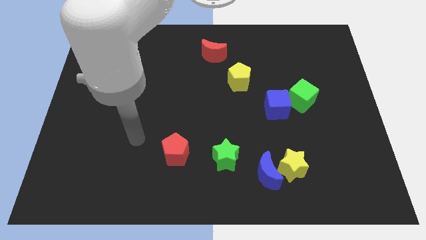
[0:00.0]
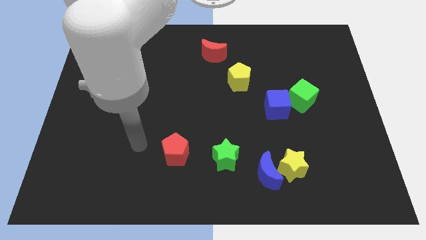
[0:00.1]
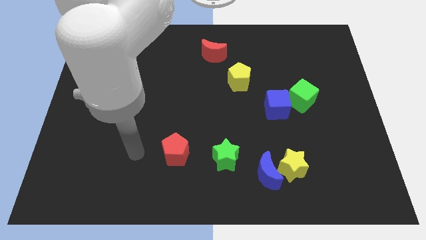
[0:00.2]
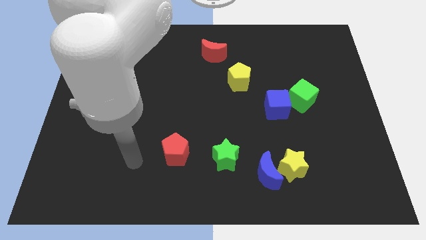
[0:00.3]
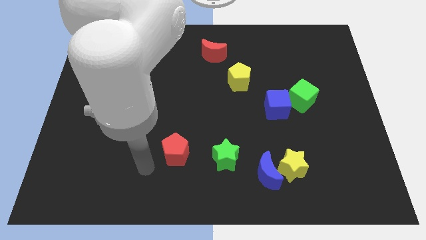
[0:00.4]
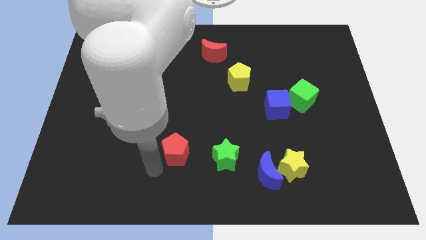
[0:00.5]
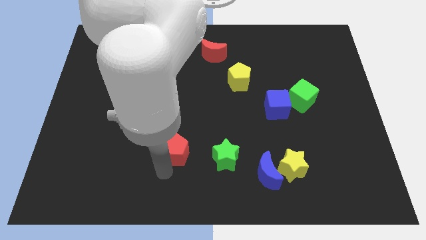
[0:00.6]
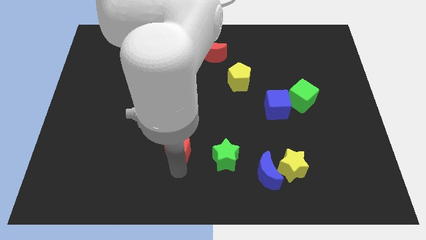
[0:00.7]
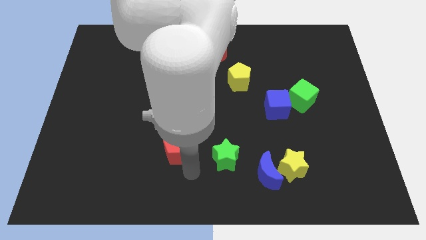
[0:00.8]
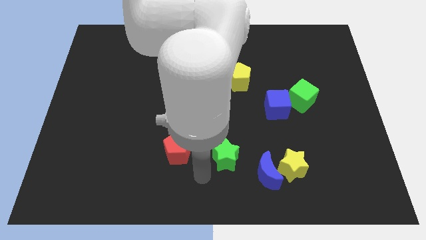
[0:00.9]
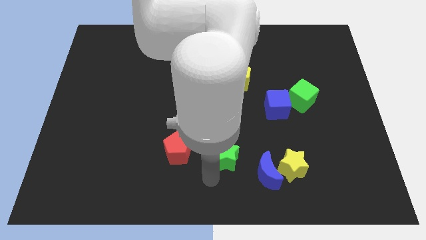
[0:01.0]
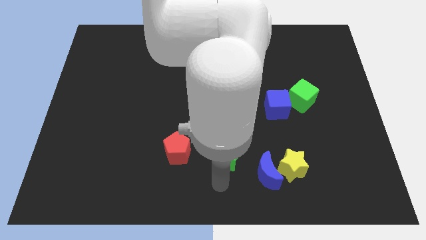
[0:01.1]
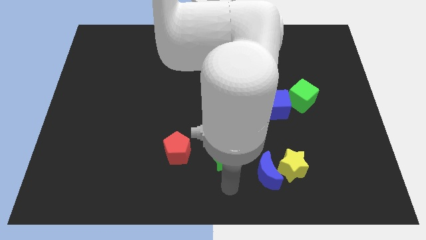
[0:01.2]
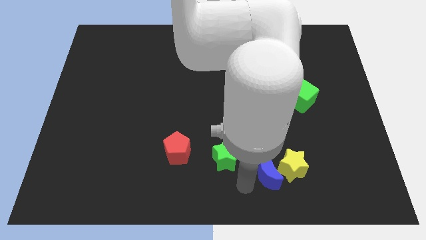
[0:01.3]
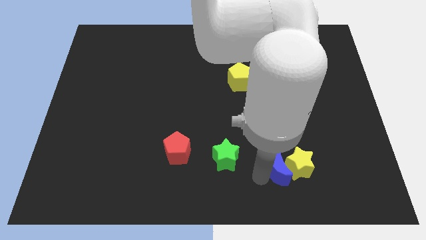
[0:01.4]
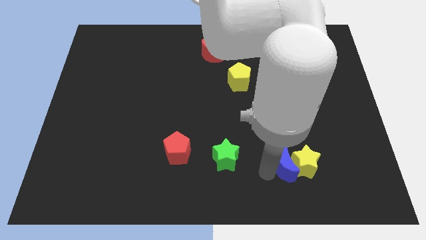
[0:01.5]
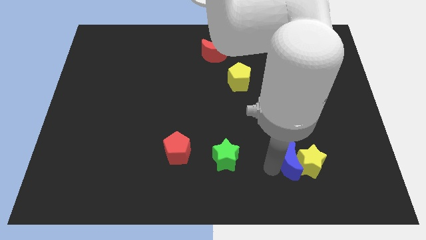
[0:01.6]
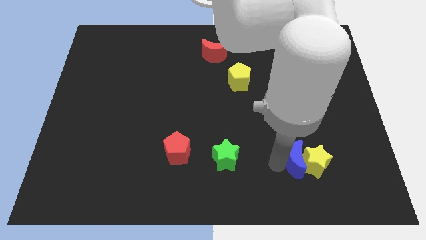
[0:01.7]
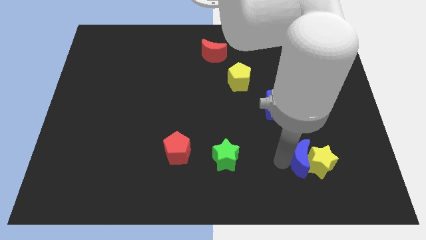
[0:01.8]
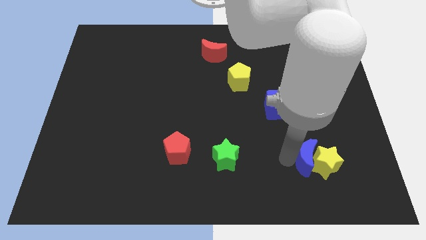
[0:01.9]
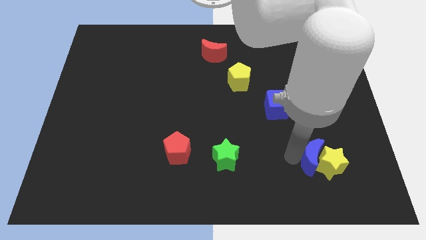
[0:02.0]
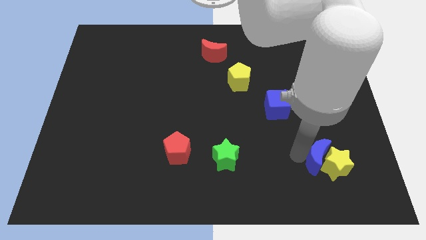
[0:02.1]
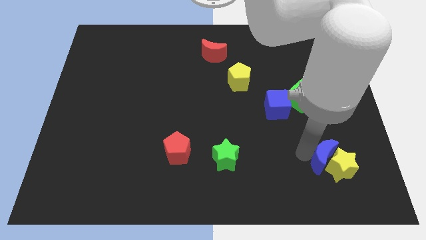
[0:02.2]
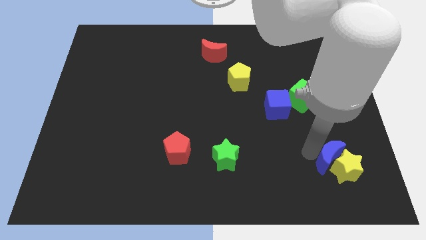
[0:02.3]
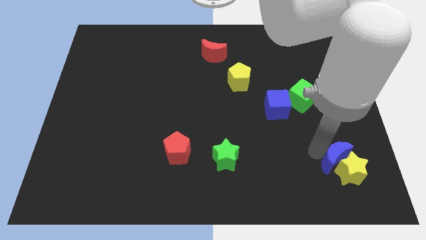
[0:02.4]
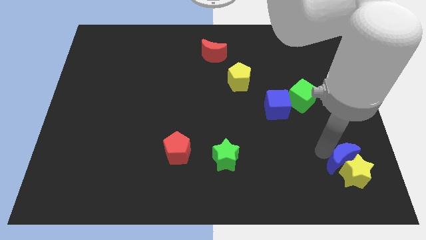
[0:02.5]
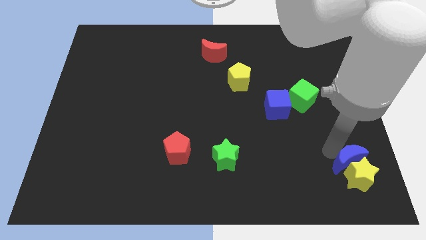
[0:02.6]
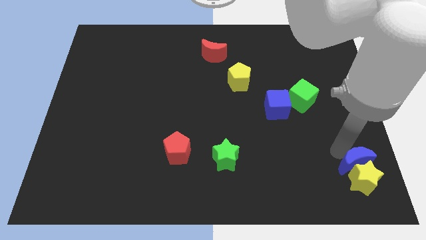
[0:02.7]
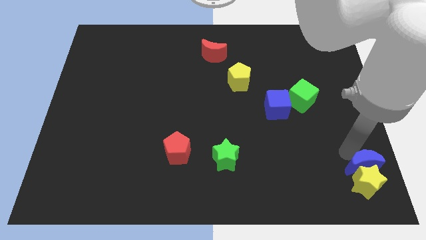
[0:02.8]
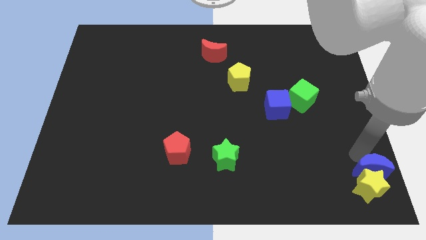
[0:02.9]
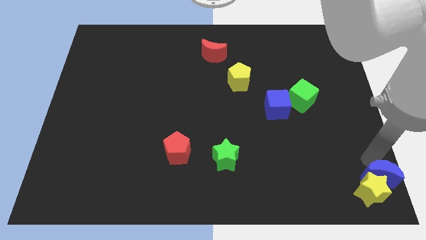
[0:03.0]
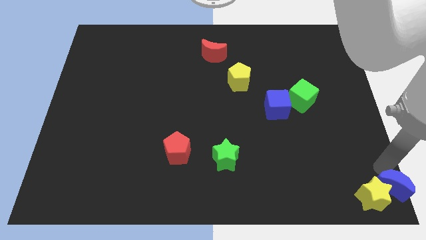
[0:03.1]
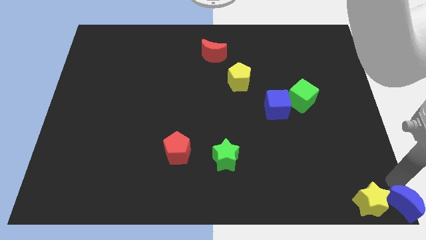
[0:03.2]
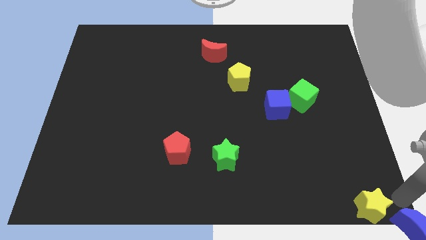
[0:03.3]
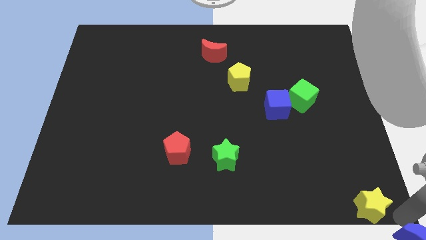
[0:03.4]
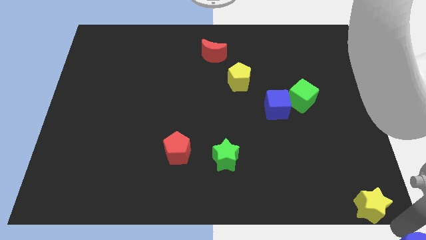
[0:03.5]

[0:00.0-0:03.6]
separate the yellow star from the blue moon

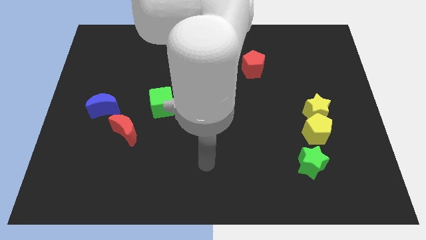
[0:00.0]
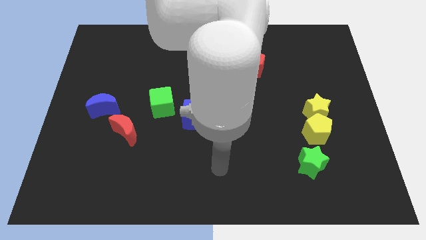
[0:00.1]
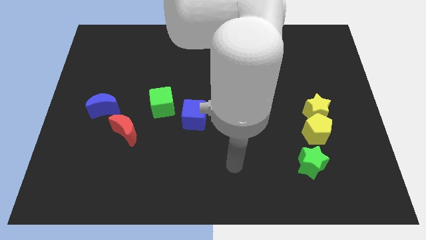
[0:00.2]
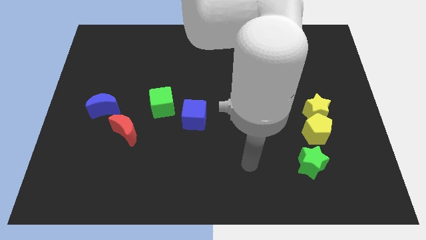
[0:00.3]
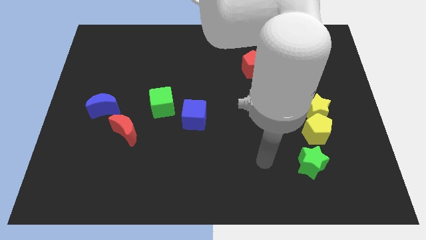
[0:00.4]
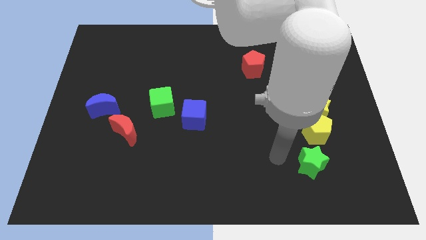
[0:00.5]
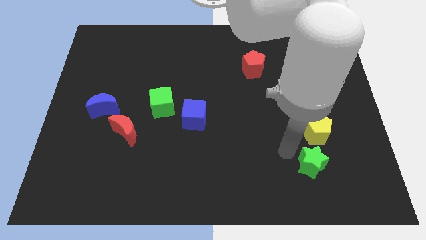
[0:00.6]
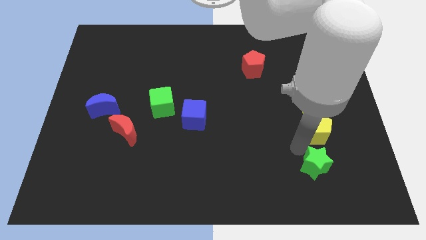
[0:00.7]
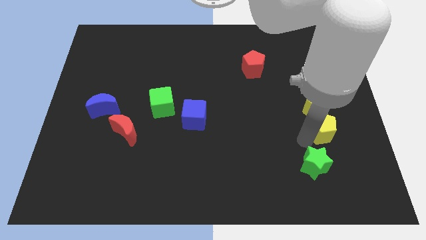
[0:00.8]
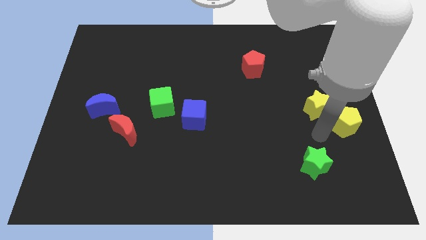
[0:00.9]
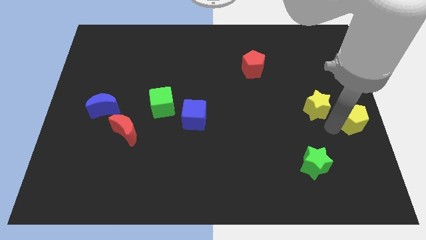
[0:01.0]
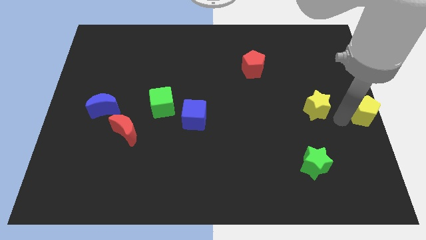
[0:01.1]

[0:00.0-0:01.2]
separate the yellow star from the yellow pentagon

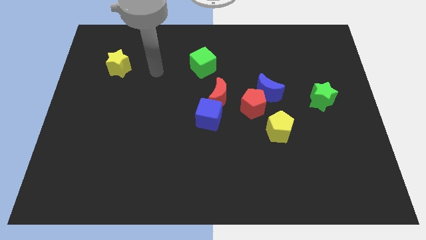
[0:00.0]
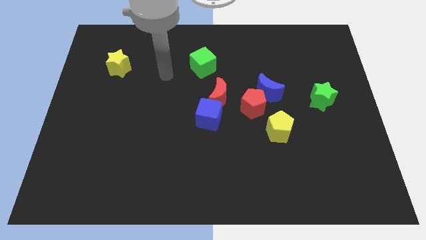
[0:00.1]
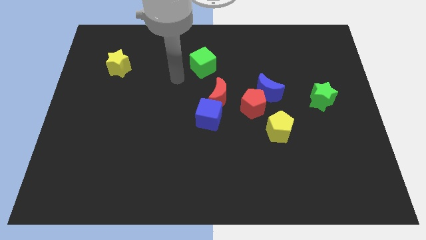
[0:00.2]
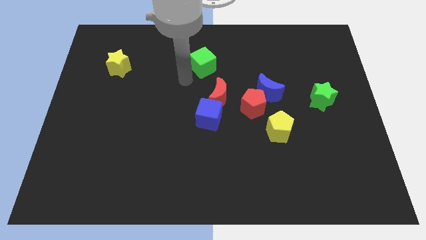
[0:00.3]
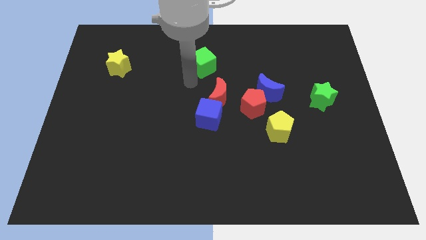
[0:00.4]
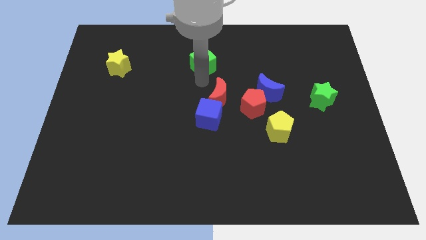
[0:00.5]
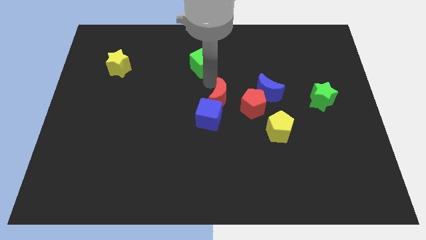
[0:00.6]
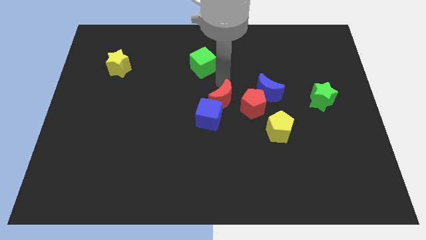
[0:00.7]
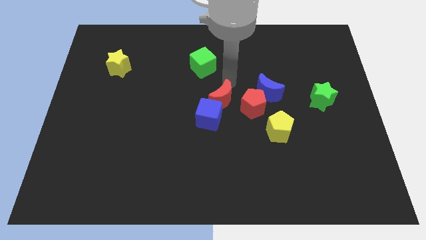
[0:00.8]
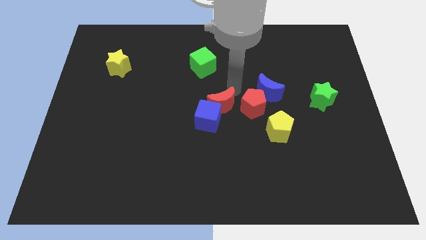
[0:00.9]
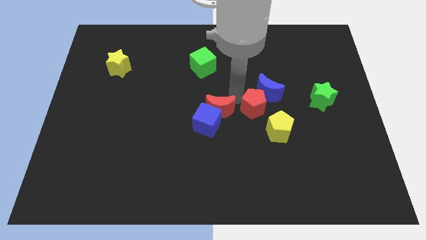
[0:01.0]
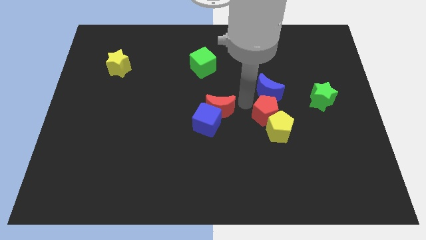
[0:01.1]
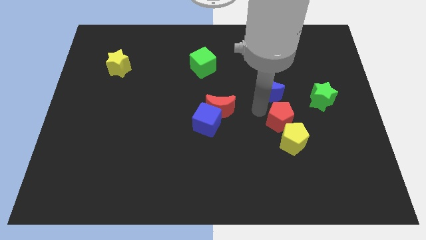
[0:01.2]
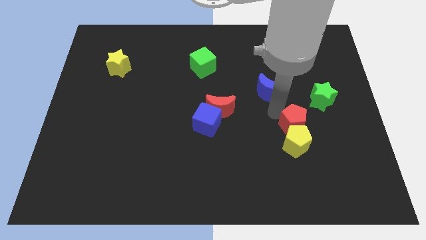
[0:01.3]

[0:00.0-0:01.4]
move the blue moon away from the red pentagon

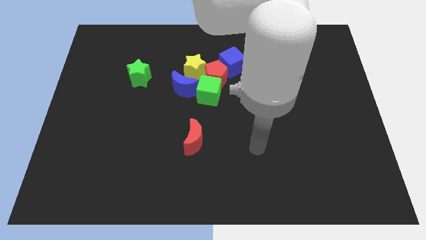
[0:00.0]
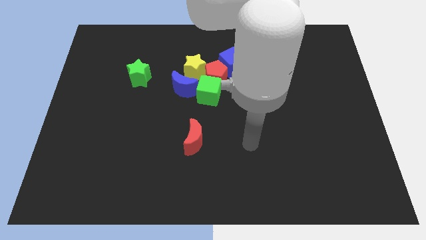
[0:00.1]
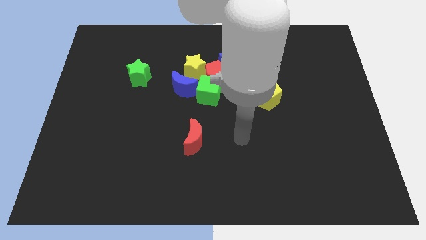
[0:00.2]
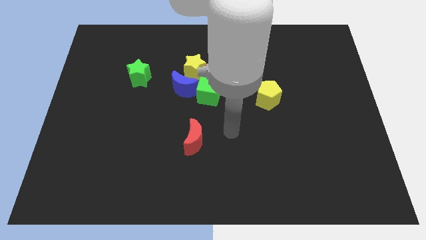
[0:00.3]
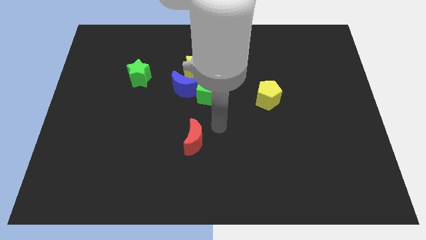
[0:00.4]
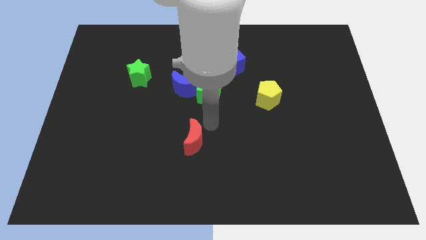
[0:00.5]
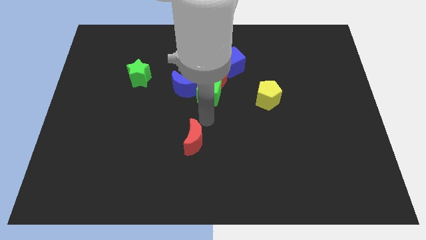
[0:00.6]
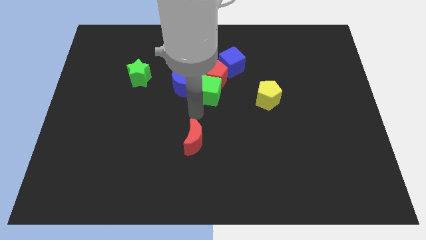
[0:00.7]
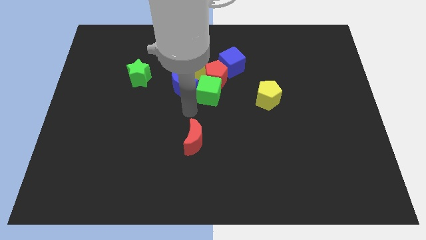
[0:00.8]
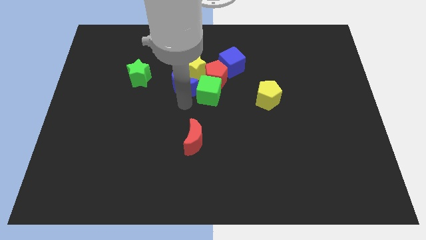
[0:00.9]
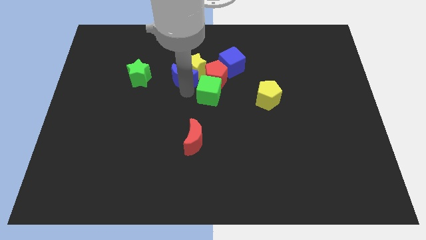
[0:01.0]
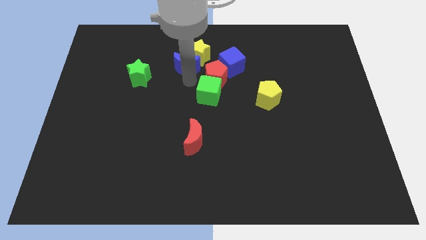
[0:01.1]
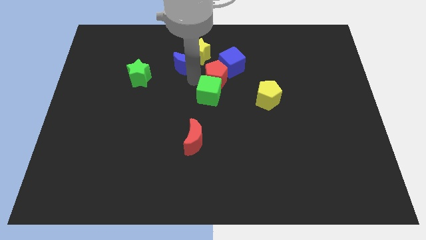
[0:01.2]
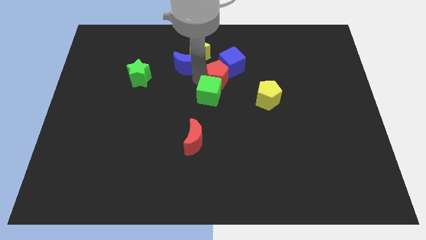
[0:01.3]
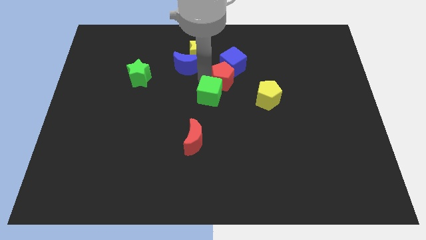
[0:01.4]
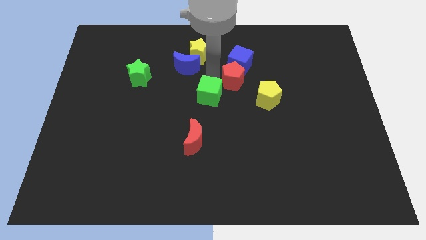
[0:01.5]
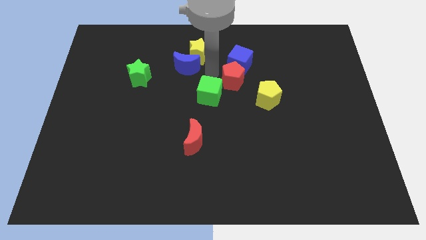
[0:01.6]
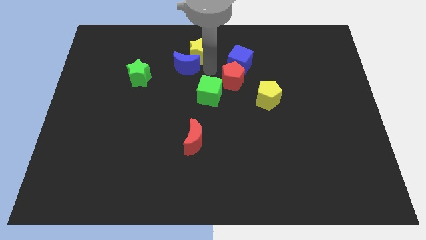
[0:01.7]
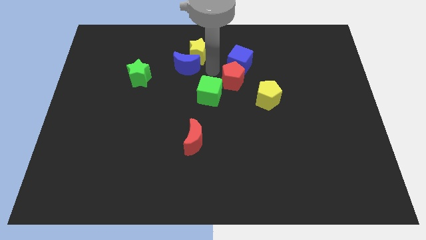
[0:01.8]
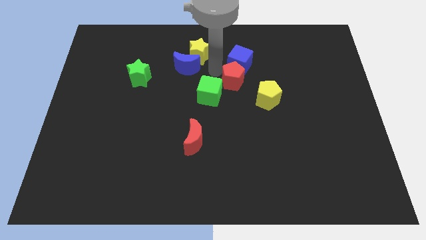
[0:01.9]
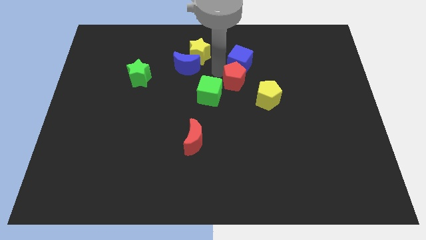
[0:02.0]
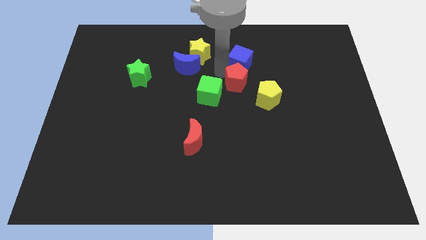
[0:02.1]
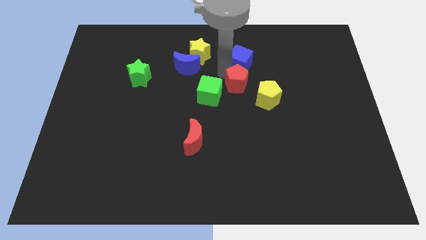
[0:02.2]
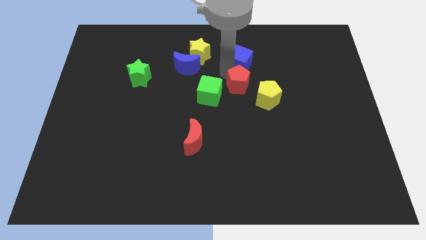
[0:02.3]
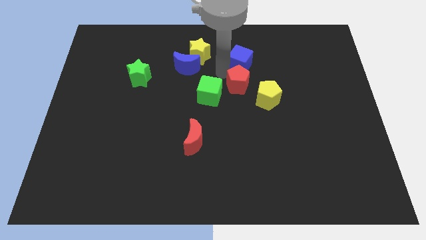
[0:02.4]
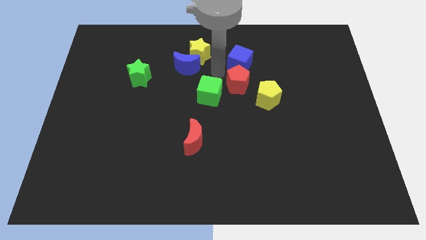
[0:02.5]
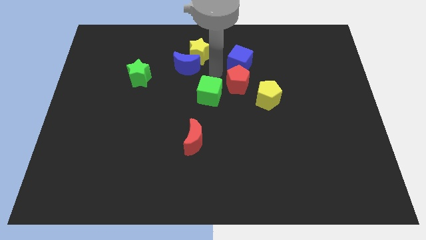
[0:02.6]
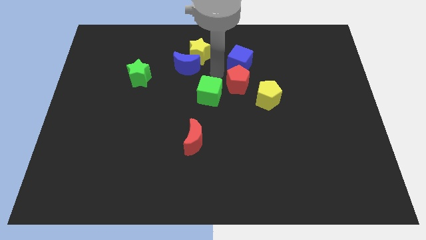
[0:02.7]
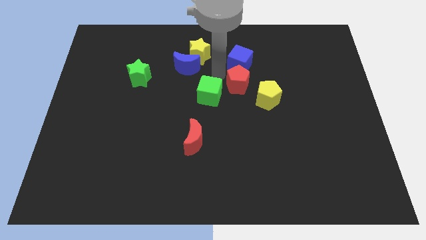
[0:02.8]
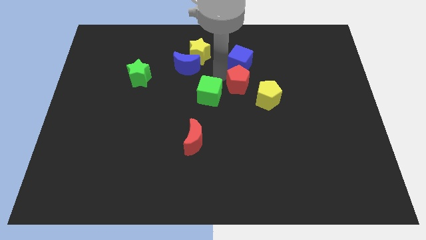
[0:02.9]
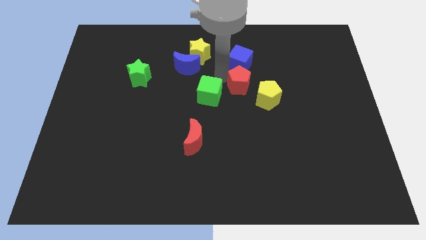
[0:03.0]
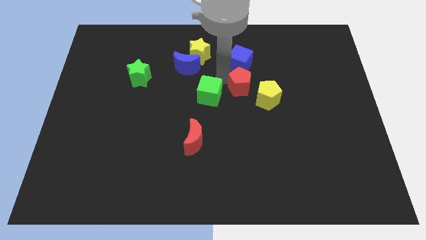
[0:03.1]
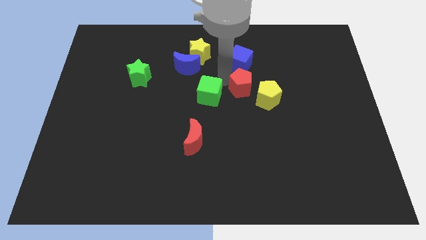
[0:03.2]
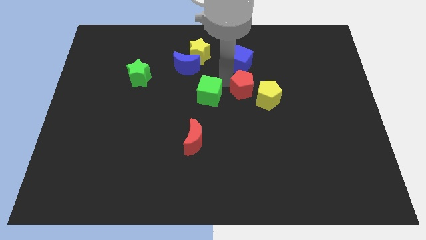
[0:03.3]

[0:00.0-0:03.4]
separate the red pentagon from the group of blocks
